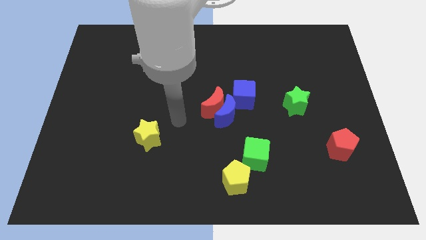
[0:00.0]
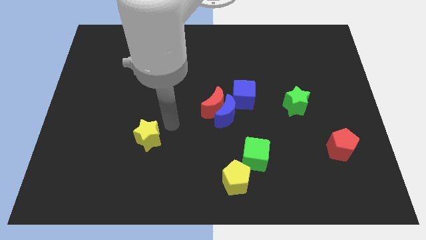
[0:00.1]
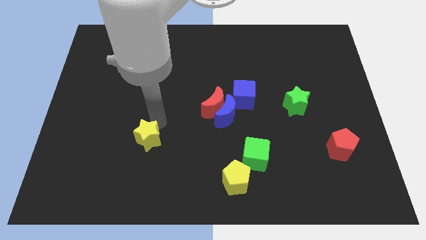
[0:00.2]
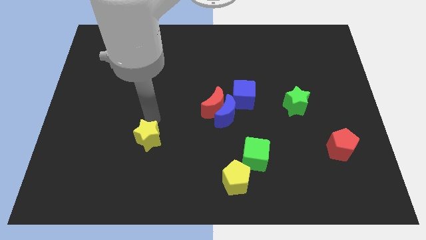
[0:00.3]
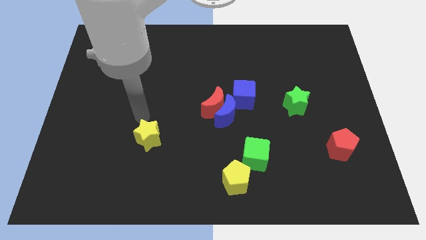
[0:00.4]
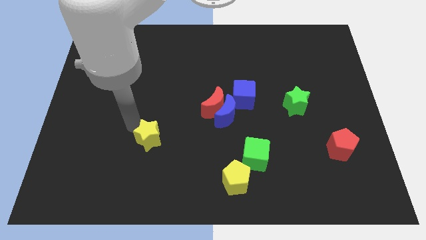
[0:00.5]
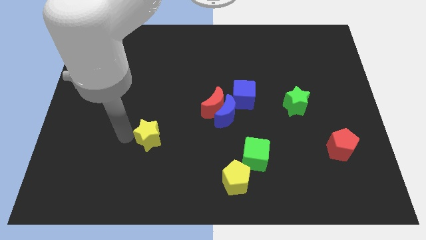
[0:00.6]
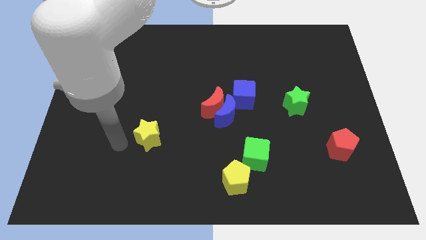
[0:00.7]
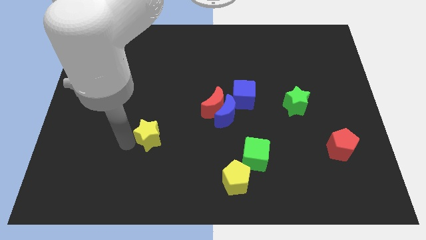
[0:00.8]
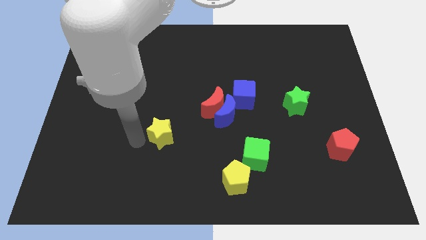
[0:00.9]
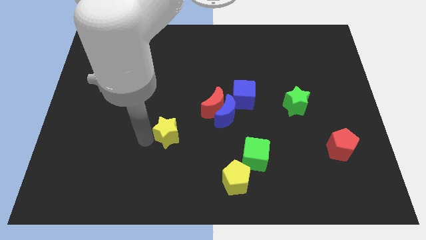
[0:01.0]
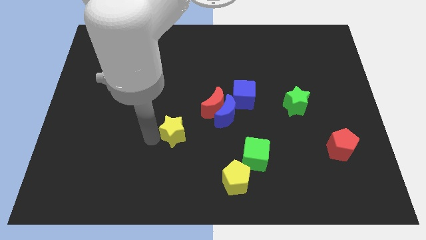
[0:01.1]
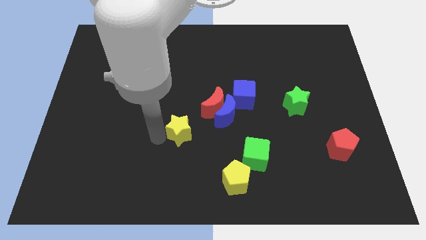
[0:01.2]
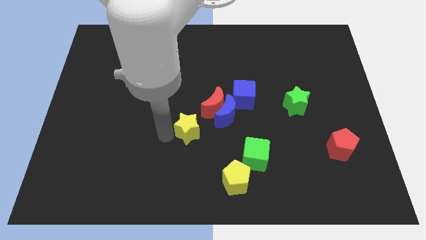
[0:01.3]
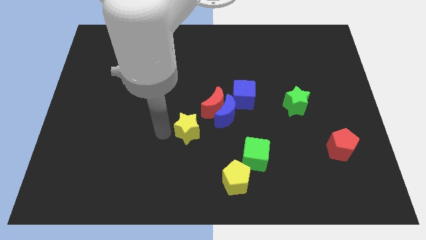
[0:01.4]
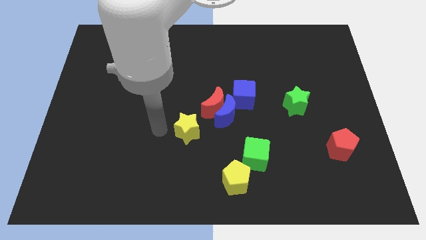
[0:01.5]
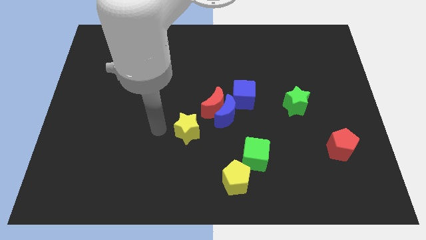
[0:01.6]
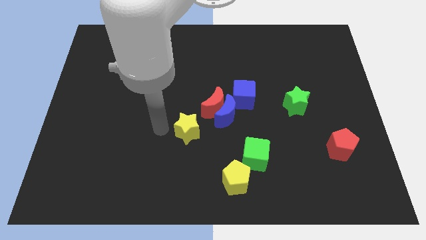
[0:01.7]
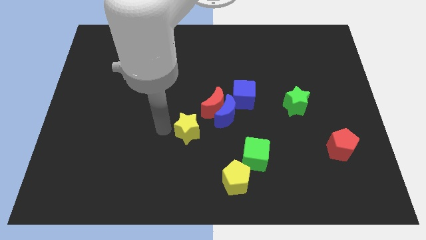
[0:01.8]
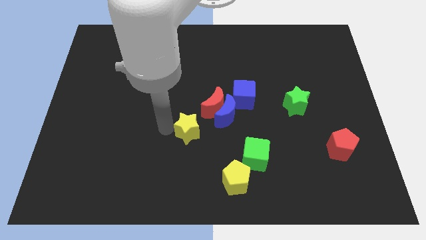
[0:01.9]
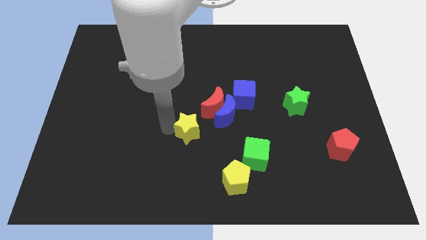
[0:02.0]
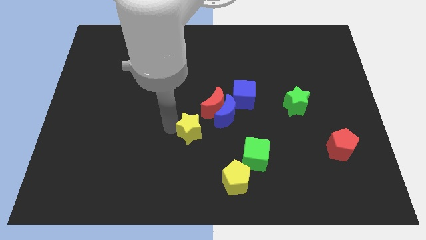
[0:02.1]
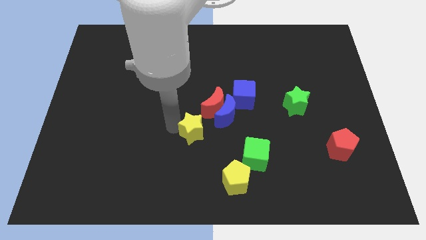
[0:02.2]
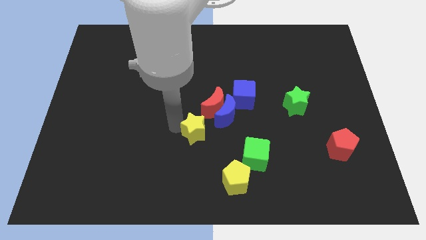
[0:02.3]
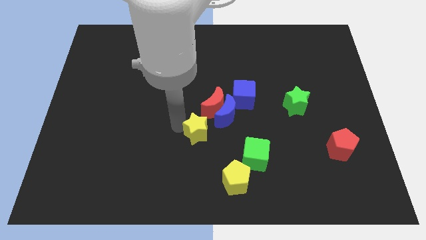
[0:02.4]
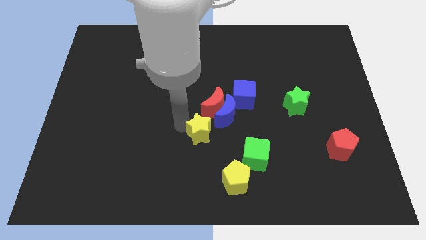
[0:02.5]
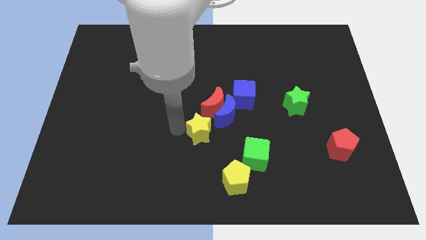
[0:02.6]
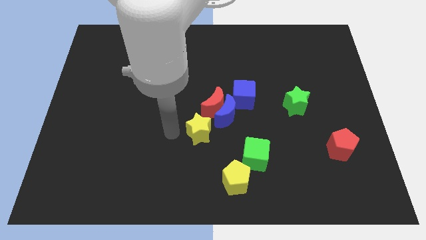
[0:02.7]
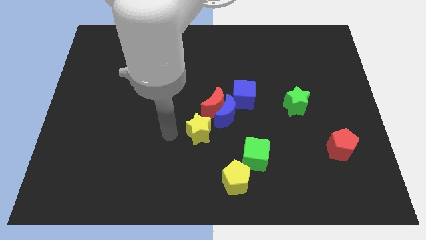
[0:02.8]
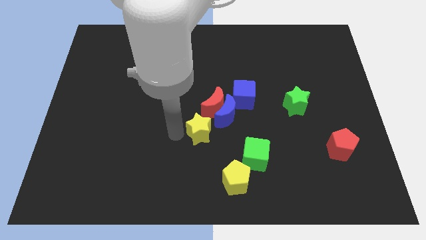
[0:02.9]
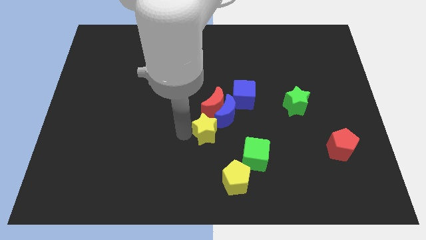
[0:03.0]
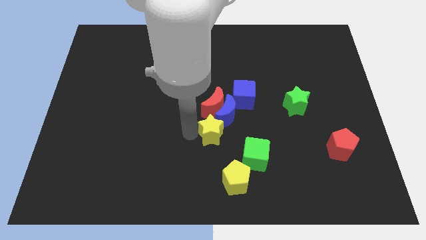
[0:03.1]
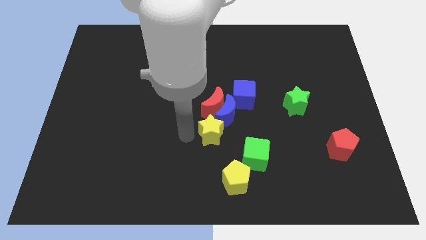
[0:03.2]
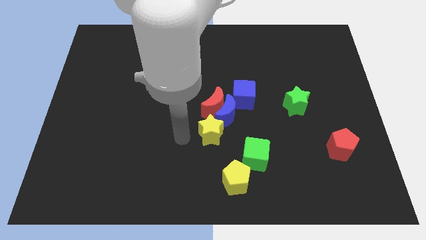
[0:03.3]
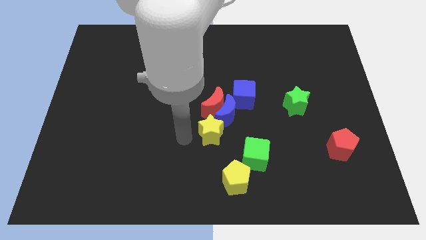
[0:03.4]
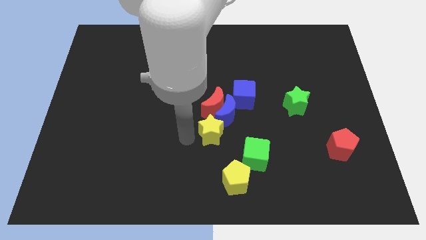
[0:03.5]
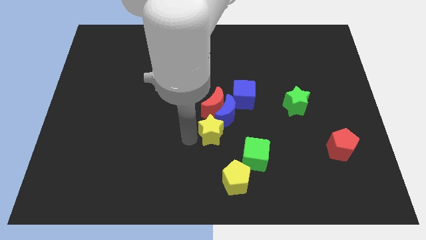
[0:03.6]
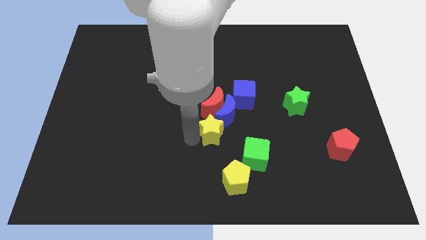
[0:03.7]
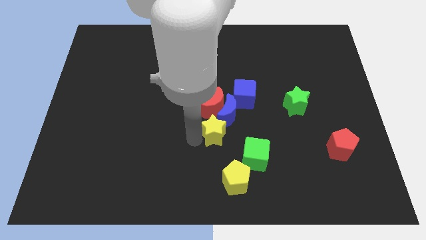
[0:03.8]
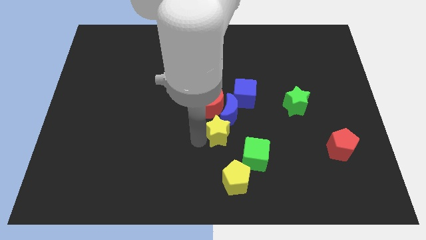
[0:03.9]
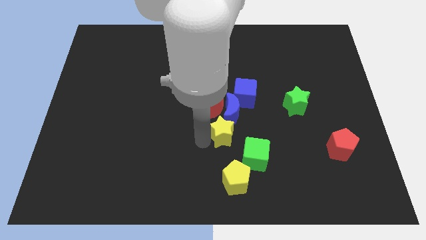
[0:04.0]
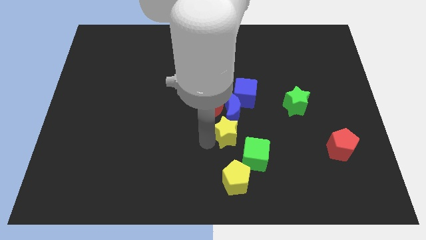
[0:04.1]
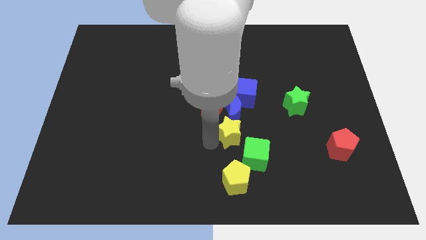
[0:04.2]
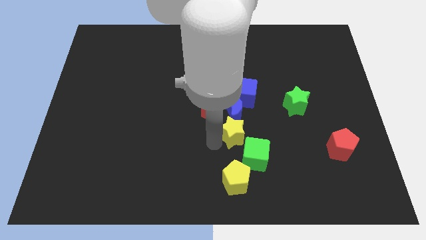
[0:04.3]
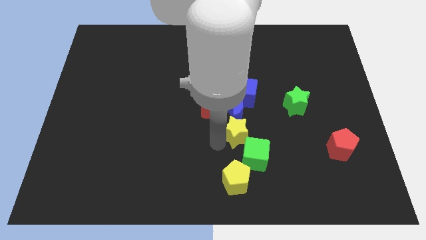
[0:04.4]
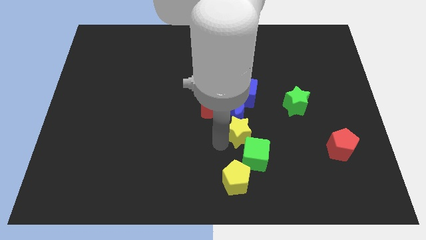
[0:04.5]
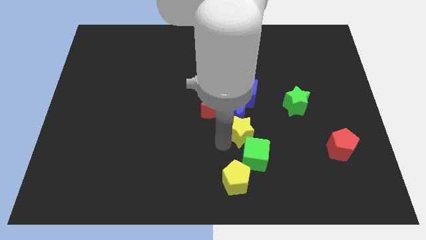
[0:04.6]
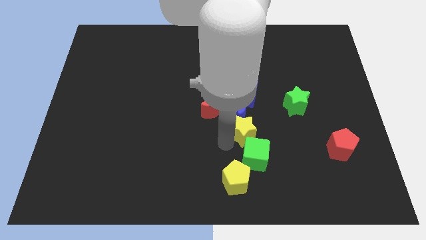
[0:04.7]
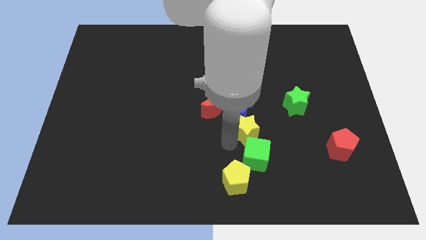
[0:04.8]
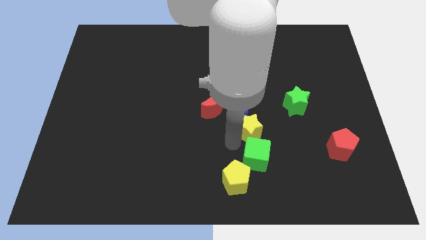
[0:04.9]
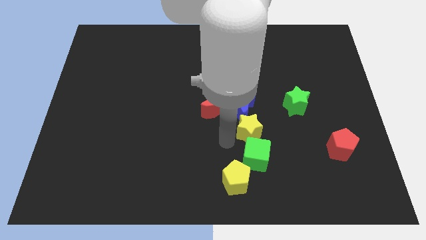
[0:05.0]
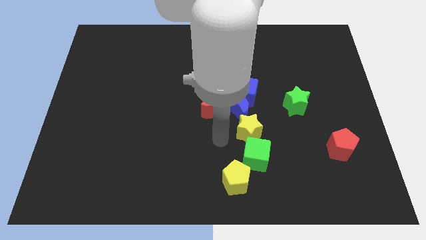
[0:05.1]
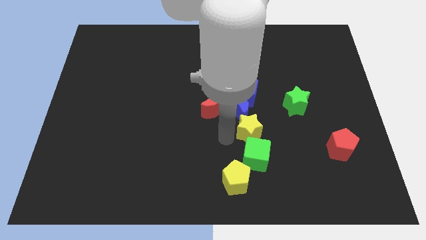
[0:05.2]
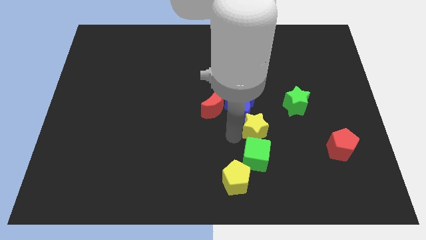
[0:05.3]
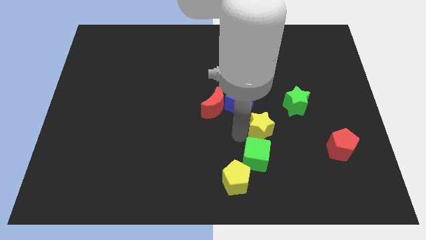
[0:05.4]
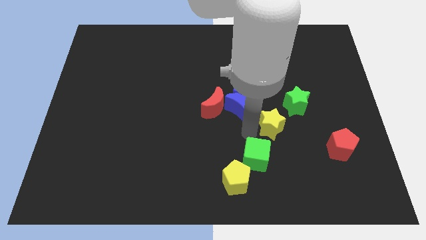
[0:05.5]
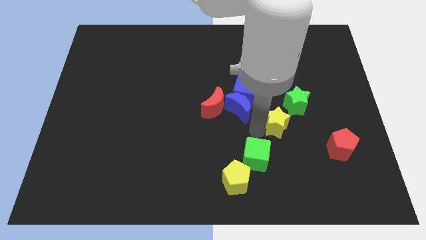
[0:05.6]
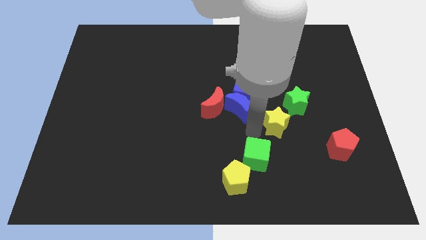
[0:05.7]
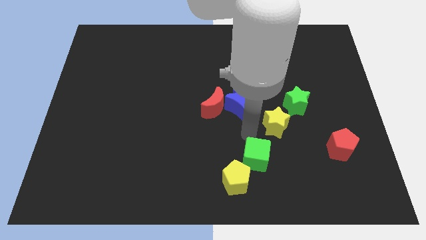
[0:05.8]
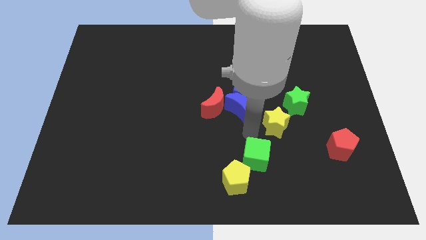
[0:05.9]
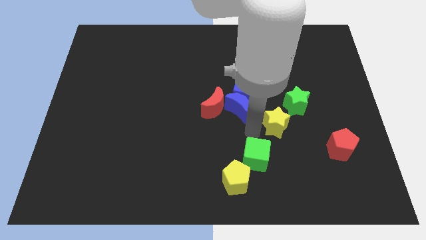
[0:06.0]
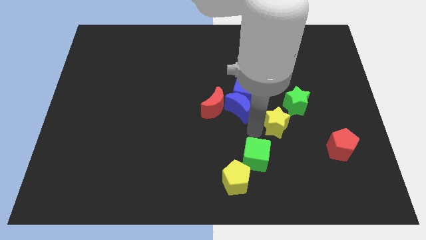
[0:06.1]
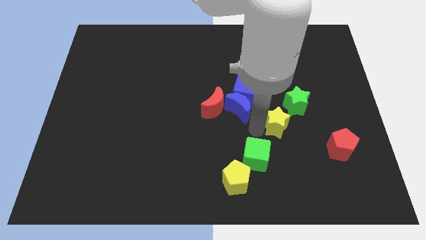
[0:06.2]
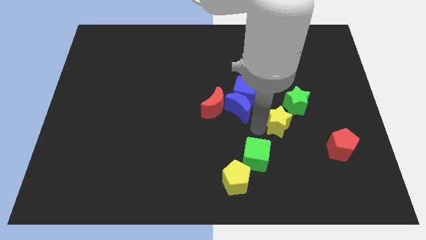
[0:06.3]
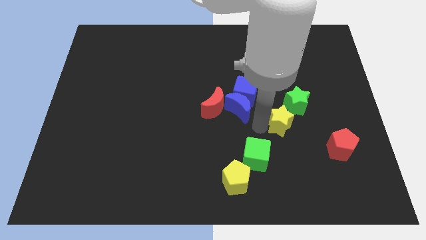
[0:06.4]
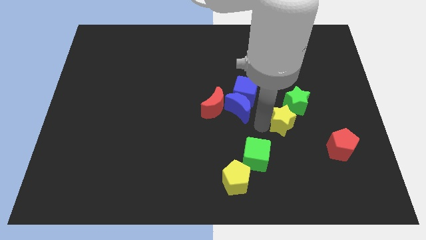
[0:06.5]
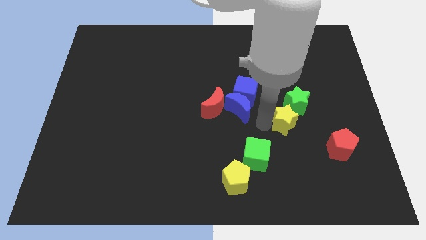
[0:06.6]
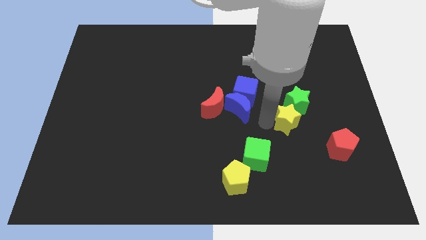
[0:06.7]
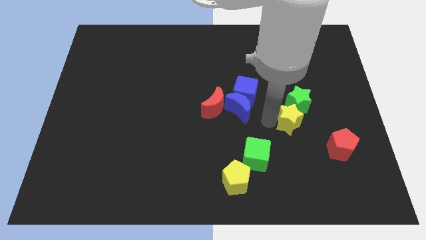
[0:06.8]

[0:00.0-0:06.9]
put the yellow star to the top left of the red pentagon
